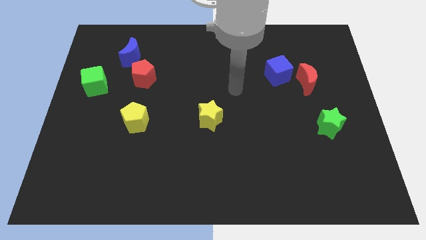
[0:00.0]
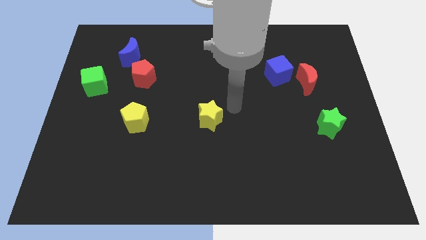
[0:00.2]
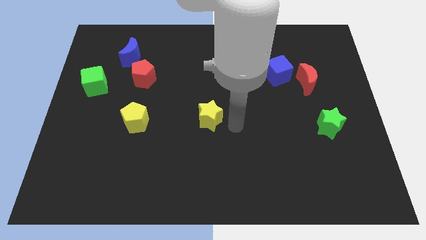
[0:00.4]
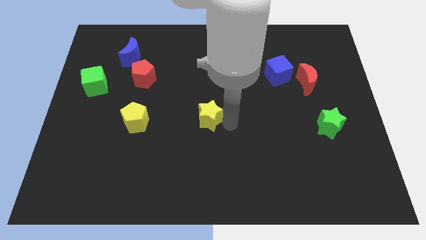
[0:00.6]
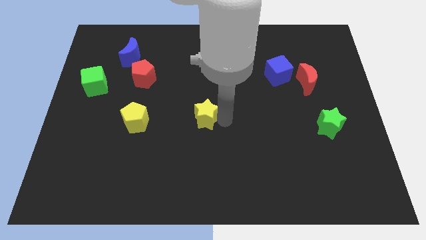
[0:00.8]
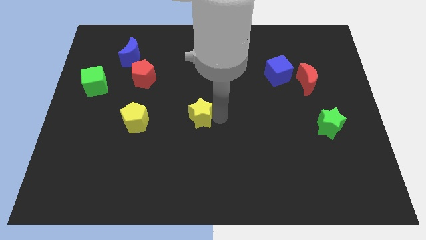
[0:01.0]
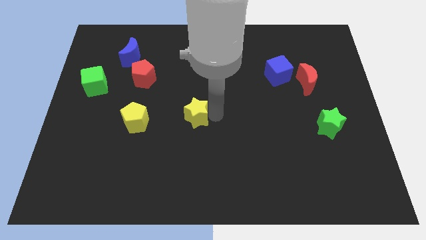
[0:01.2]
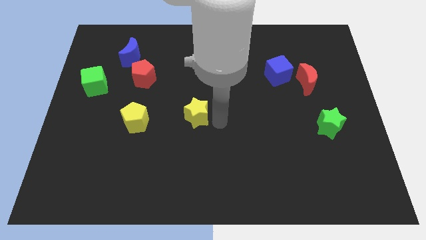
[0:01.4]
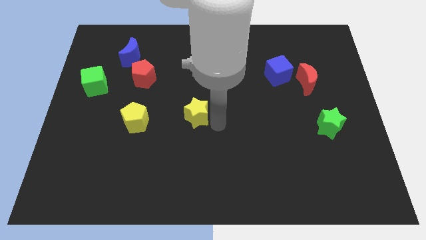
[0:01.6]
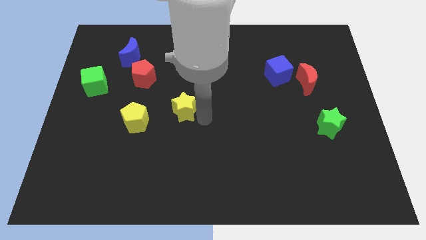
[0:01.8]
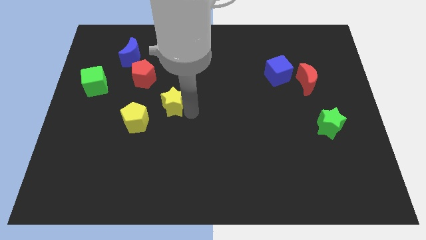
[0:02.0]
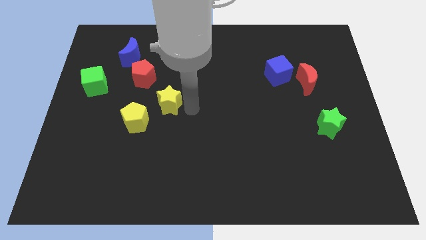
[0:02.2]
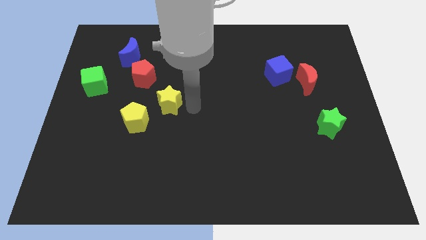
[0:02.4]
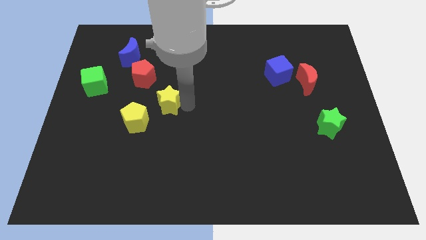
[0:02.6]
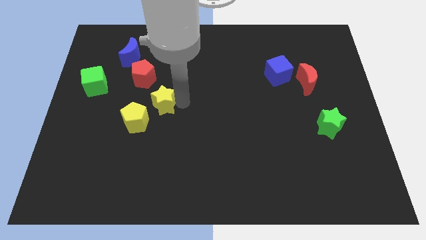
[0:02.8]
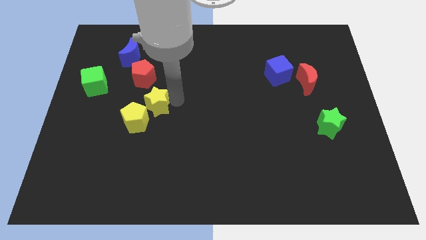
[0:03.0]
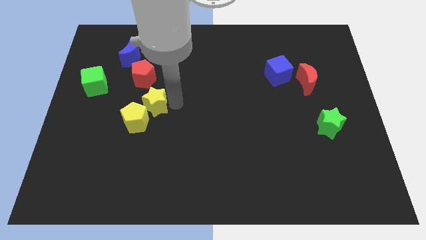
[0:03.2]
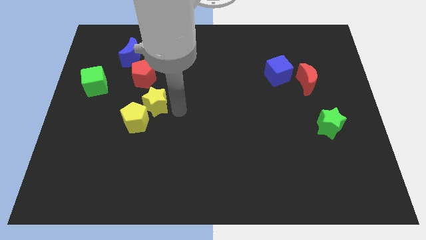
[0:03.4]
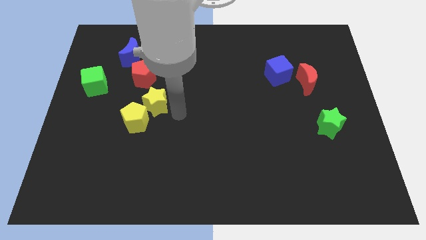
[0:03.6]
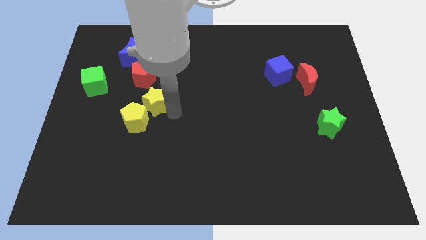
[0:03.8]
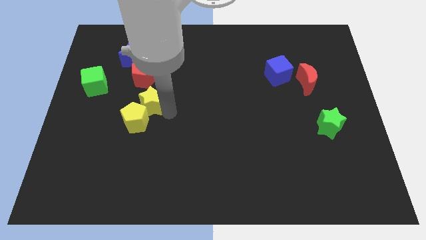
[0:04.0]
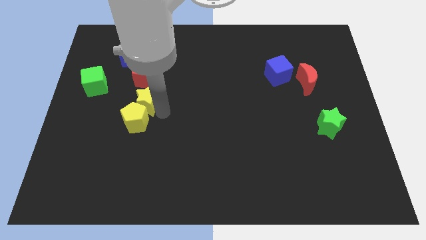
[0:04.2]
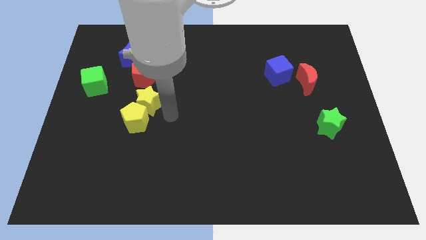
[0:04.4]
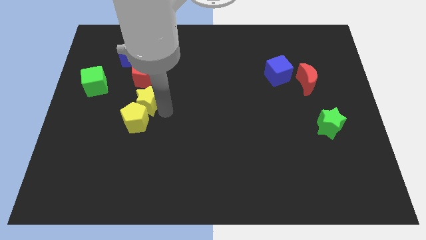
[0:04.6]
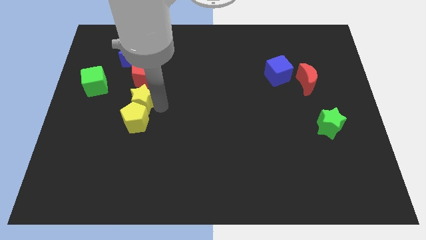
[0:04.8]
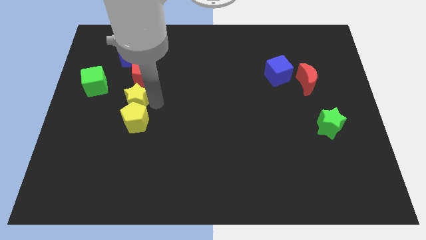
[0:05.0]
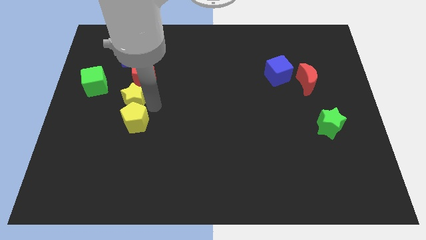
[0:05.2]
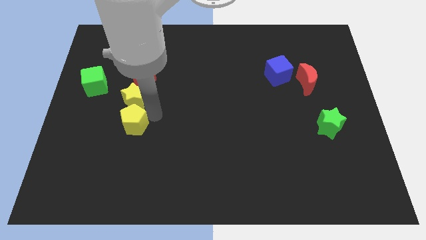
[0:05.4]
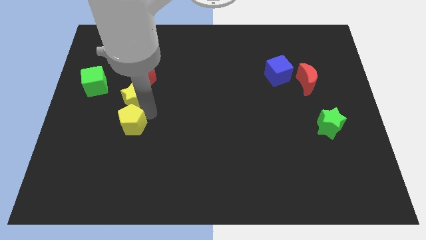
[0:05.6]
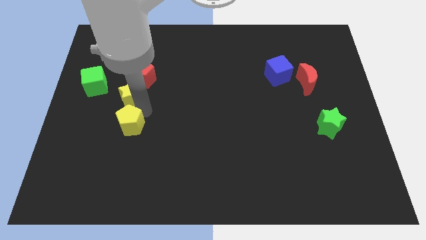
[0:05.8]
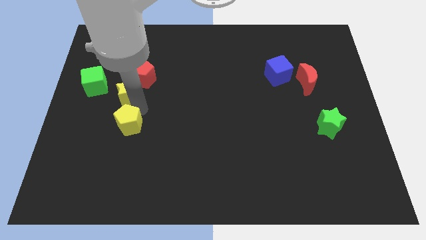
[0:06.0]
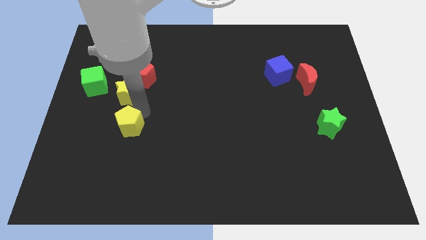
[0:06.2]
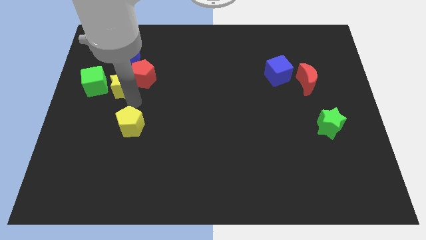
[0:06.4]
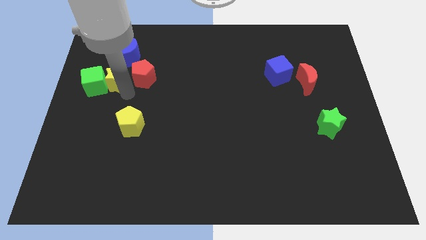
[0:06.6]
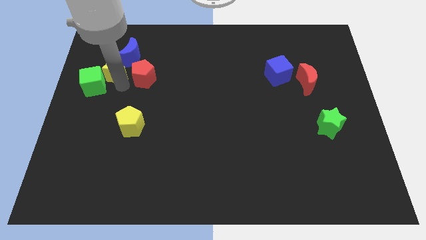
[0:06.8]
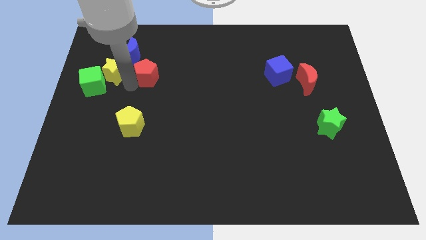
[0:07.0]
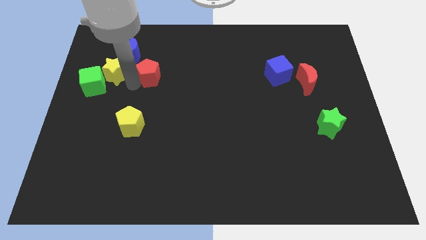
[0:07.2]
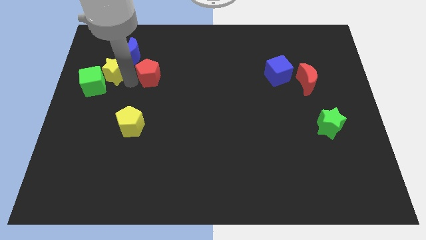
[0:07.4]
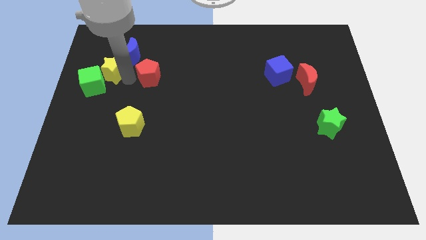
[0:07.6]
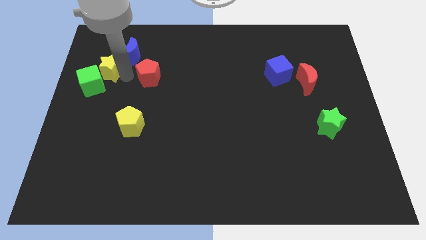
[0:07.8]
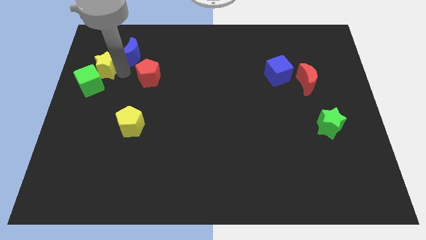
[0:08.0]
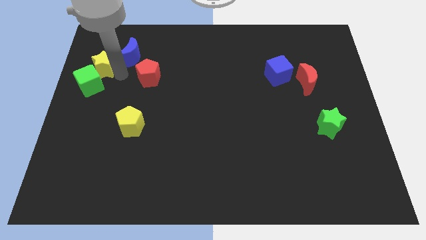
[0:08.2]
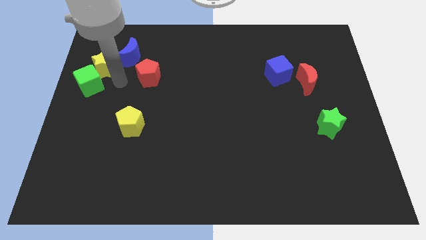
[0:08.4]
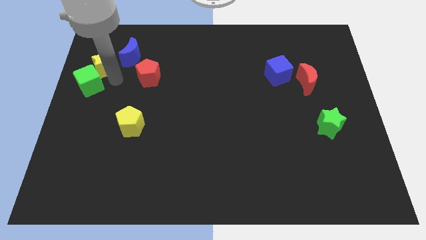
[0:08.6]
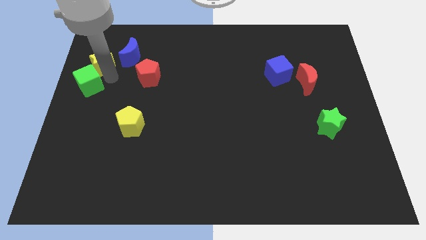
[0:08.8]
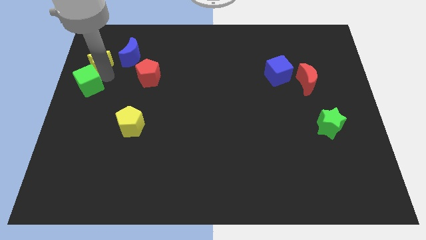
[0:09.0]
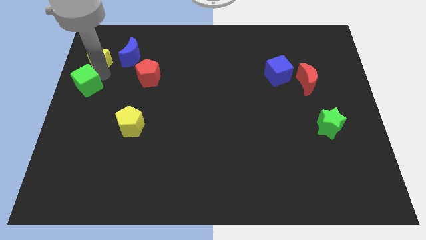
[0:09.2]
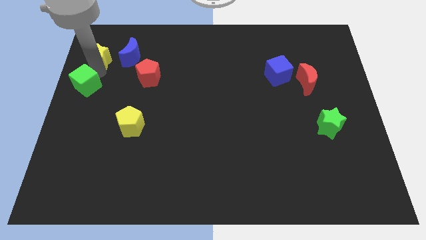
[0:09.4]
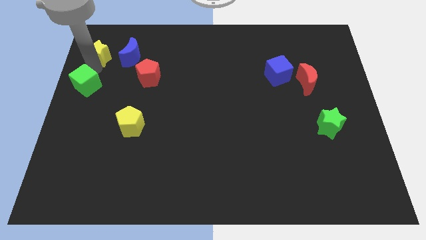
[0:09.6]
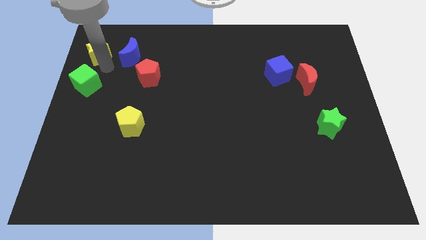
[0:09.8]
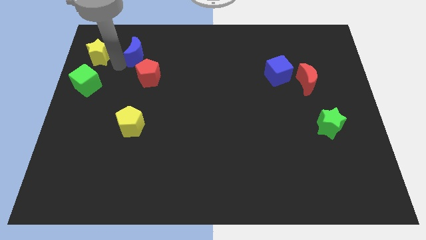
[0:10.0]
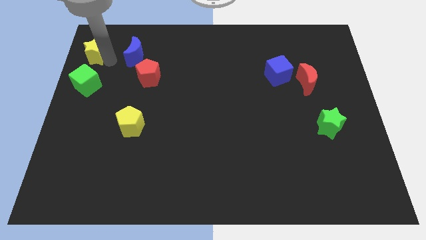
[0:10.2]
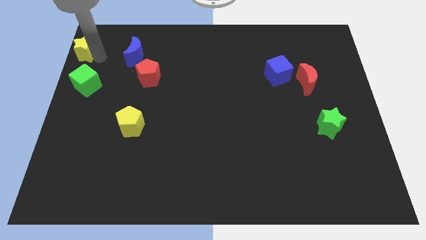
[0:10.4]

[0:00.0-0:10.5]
slide the yellow star to the top left of the board

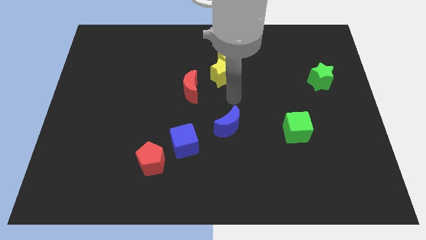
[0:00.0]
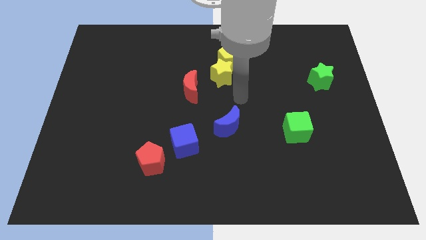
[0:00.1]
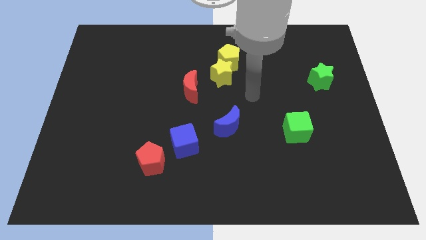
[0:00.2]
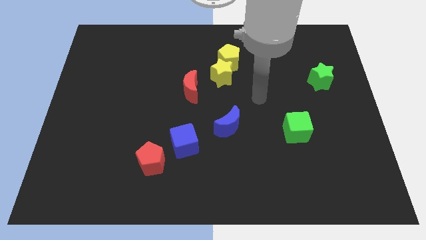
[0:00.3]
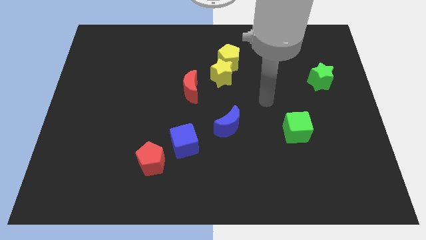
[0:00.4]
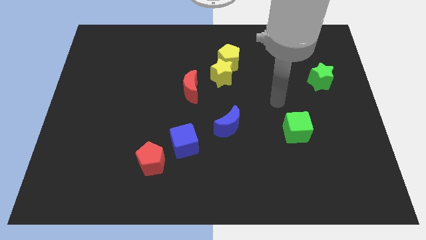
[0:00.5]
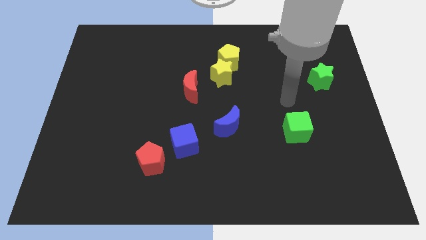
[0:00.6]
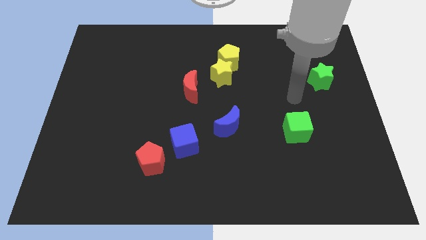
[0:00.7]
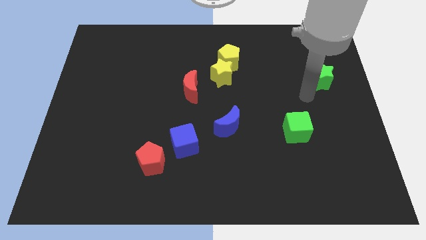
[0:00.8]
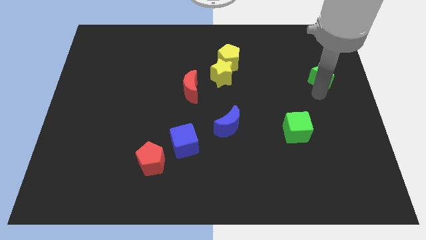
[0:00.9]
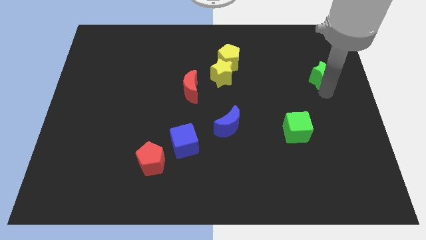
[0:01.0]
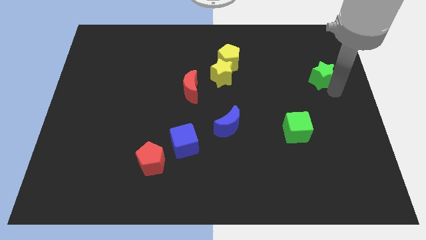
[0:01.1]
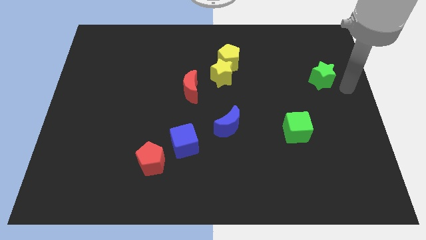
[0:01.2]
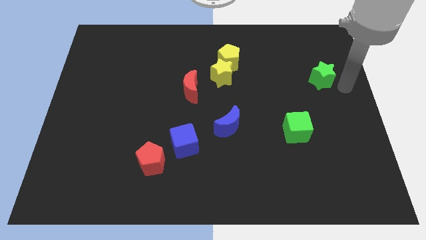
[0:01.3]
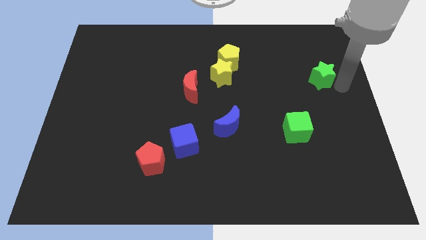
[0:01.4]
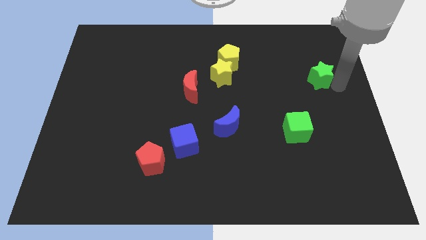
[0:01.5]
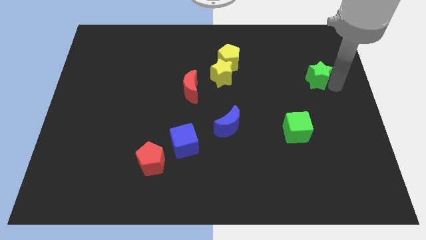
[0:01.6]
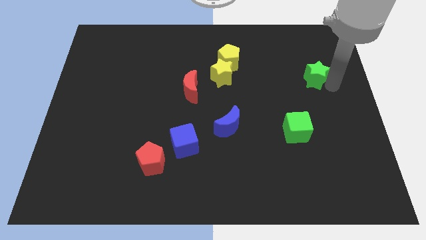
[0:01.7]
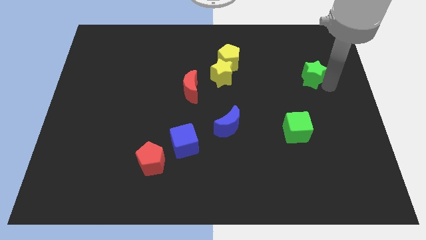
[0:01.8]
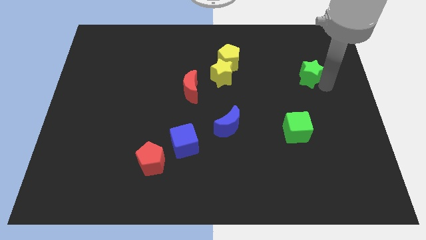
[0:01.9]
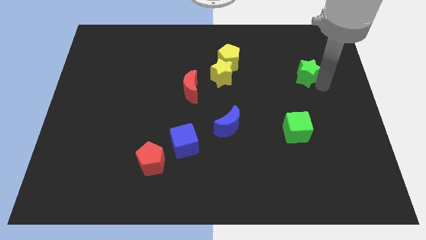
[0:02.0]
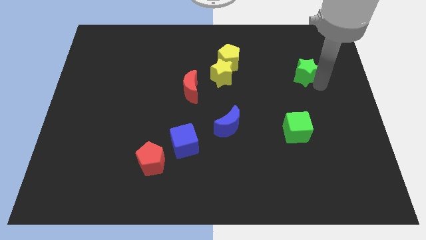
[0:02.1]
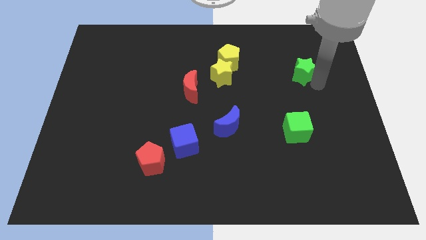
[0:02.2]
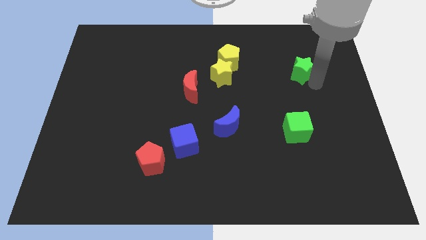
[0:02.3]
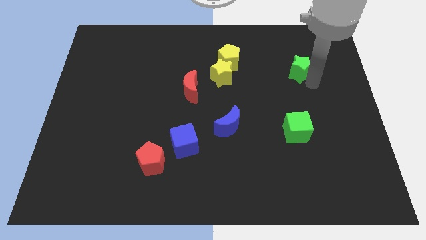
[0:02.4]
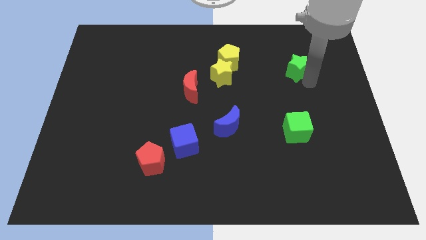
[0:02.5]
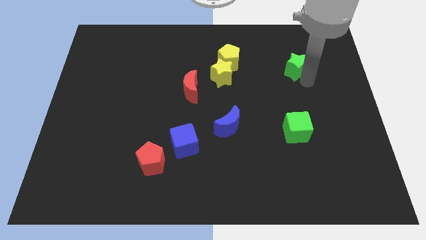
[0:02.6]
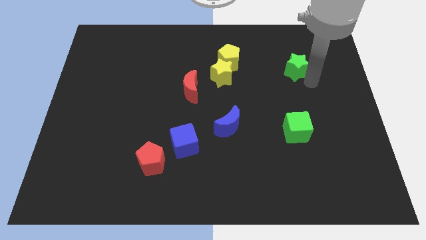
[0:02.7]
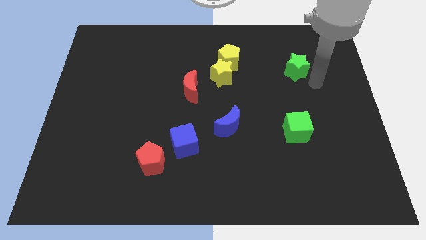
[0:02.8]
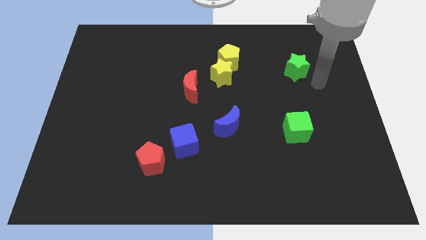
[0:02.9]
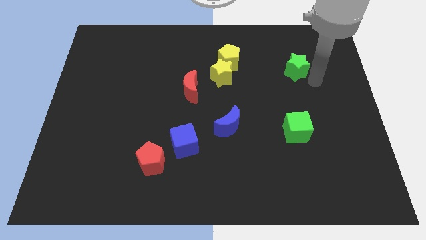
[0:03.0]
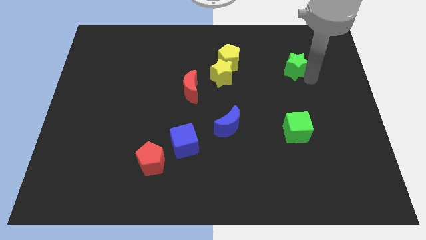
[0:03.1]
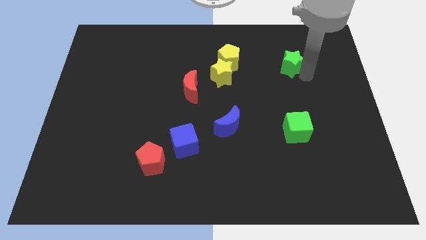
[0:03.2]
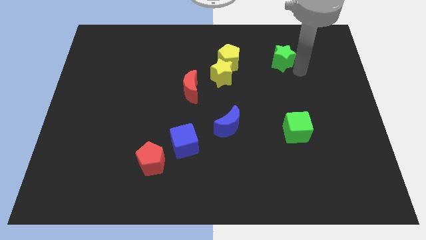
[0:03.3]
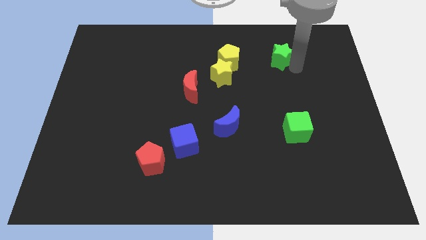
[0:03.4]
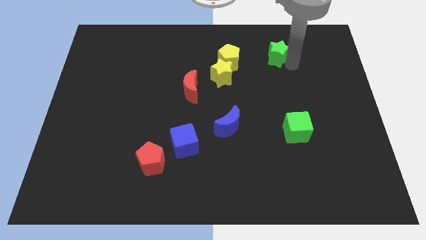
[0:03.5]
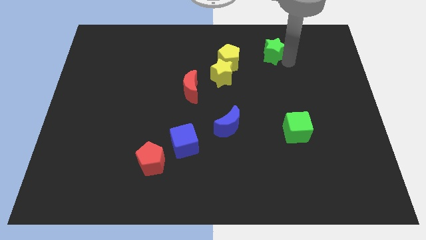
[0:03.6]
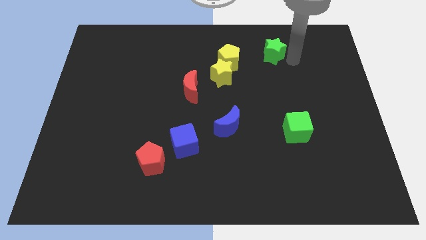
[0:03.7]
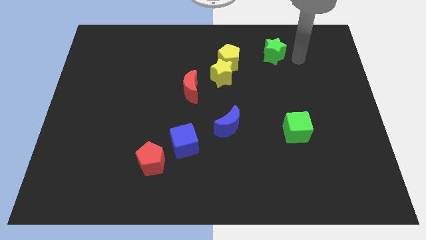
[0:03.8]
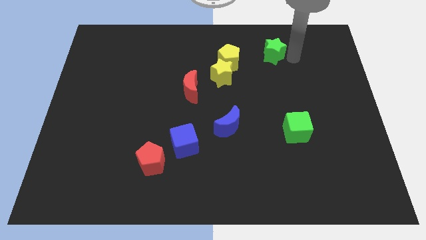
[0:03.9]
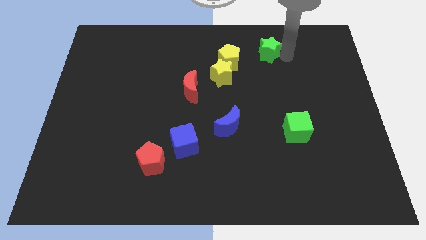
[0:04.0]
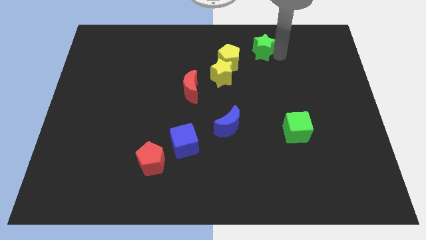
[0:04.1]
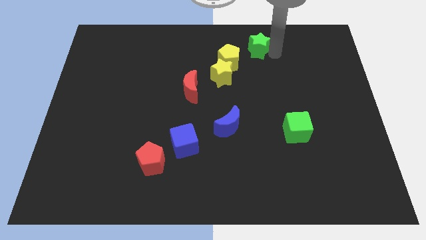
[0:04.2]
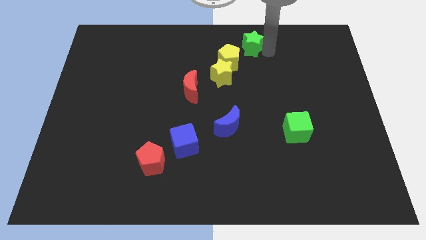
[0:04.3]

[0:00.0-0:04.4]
move the green star to the towards your base
